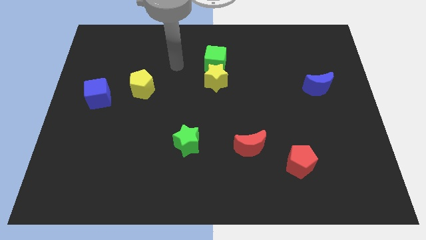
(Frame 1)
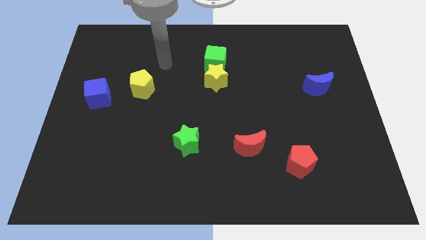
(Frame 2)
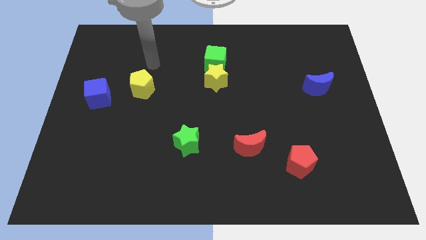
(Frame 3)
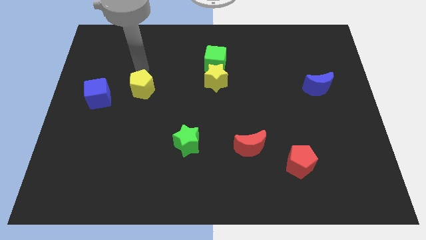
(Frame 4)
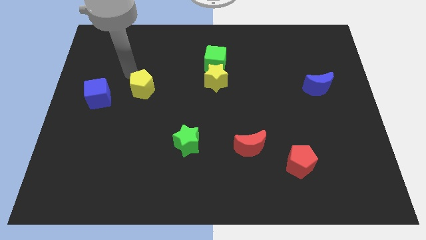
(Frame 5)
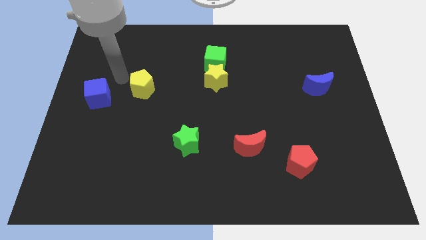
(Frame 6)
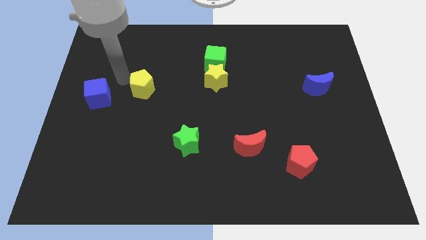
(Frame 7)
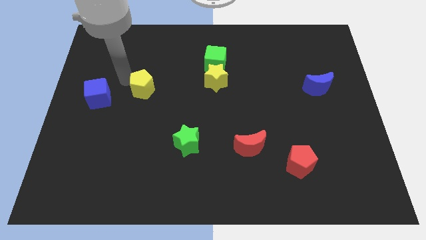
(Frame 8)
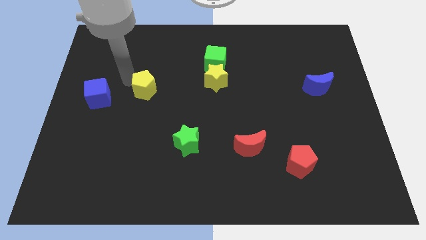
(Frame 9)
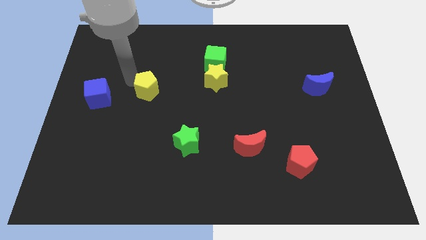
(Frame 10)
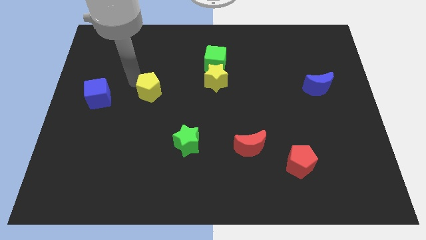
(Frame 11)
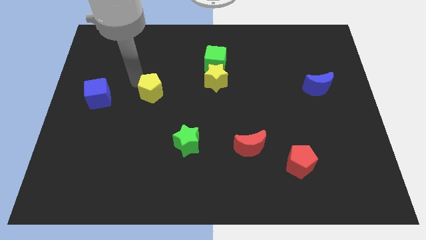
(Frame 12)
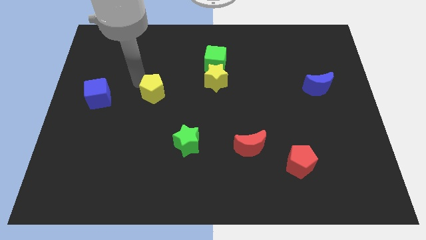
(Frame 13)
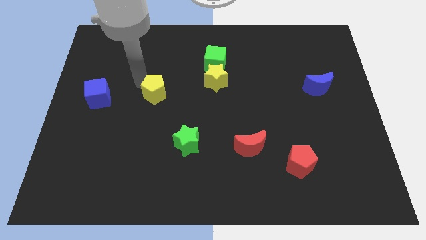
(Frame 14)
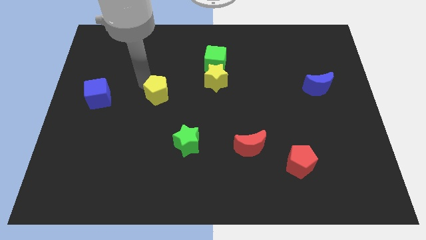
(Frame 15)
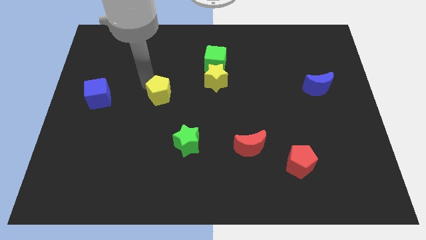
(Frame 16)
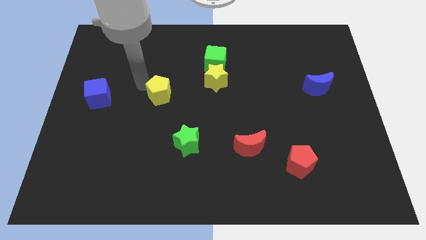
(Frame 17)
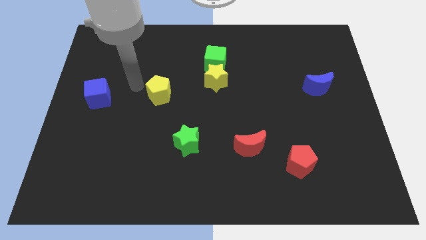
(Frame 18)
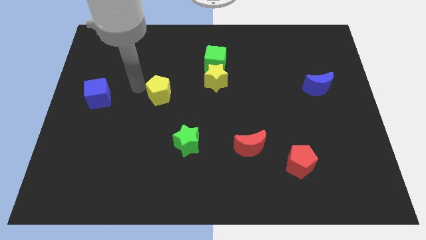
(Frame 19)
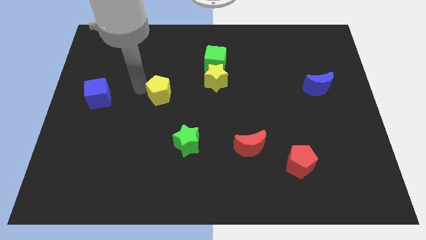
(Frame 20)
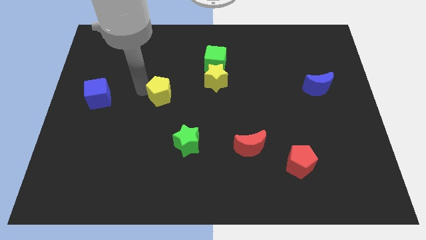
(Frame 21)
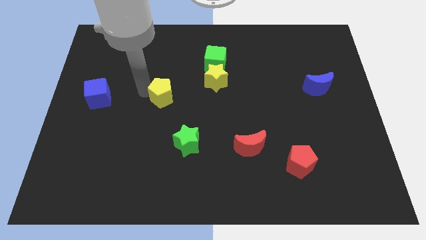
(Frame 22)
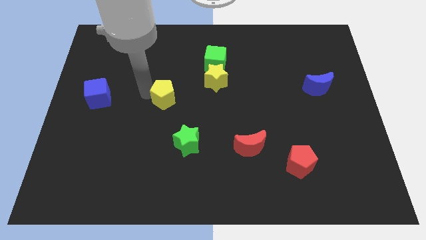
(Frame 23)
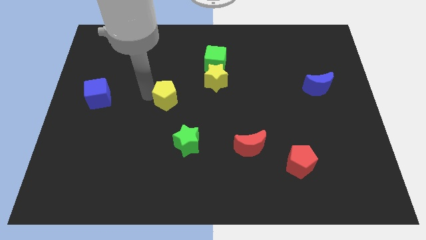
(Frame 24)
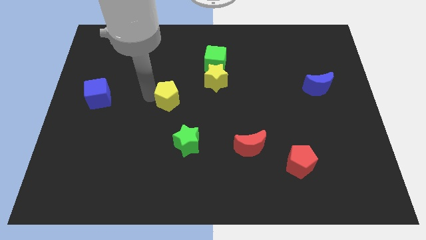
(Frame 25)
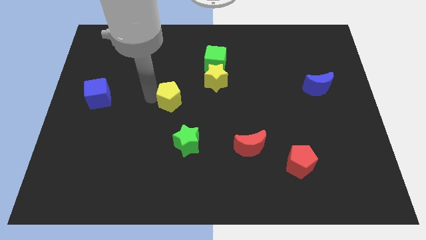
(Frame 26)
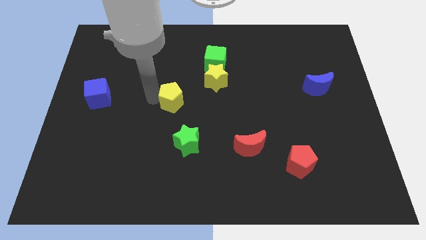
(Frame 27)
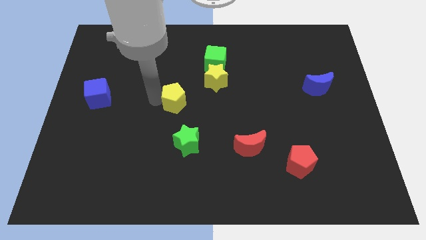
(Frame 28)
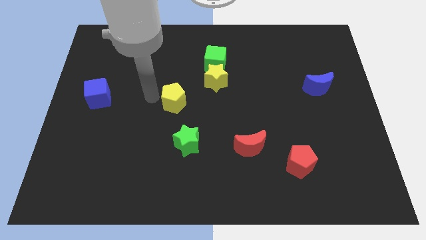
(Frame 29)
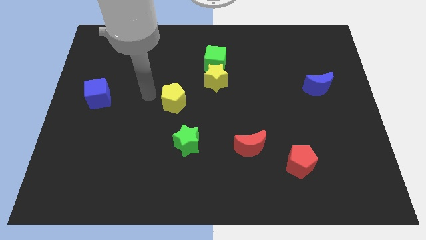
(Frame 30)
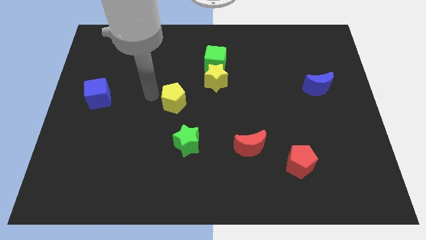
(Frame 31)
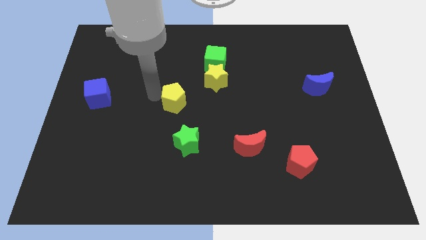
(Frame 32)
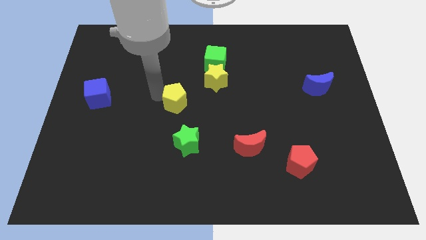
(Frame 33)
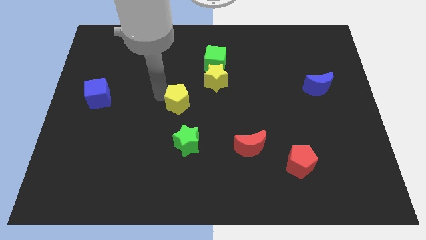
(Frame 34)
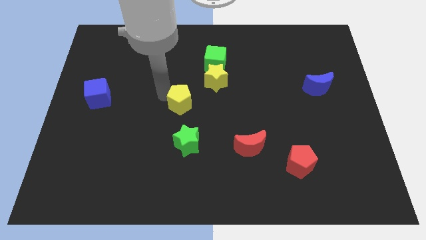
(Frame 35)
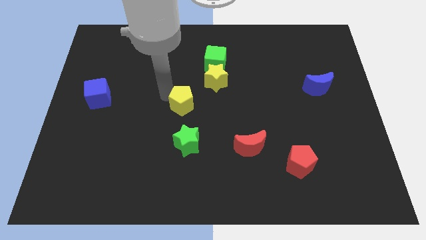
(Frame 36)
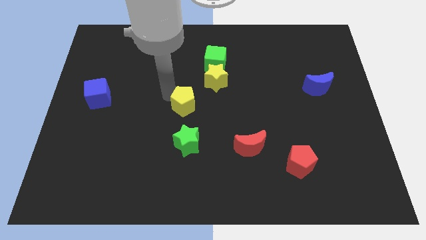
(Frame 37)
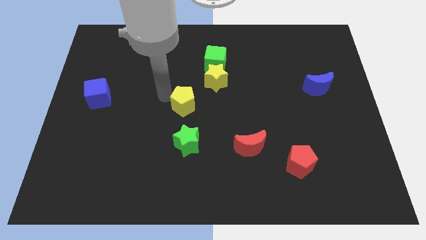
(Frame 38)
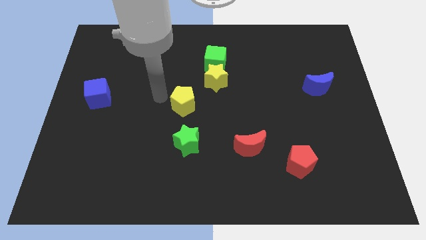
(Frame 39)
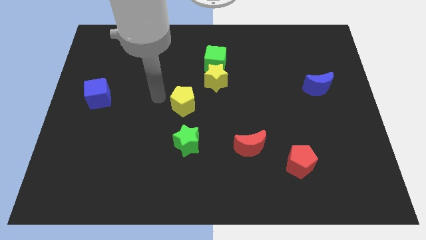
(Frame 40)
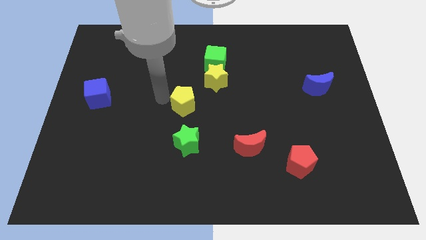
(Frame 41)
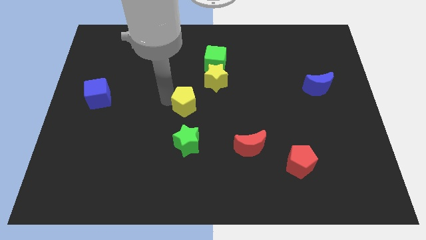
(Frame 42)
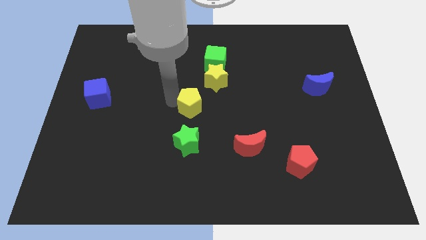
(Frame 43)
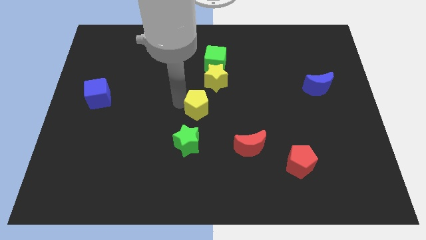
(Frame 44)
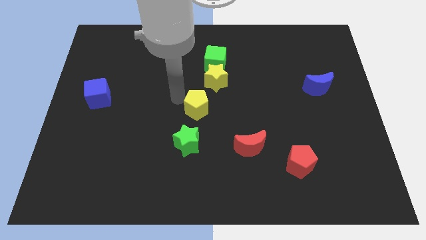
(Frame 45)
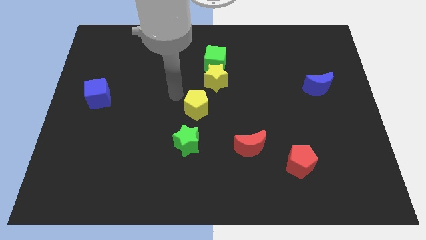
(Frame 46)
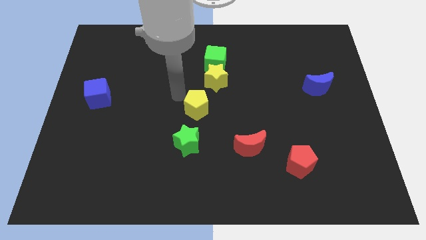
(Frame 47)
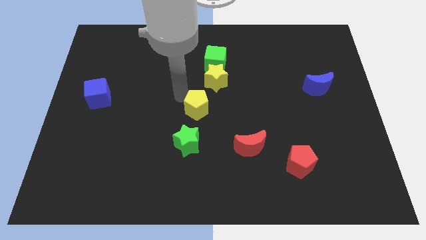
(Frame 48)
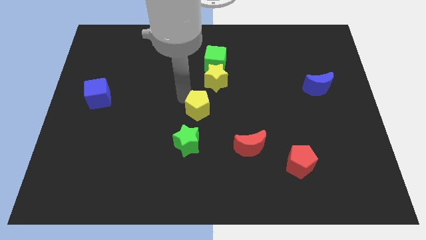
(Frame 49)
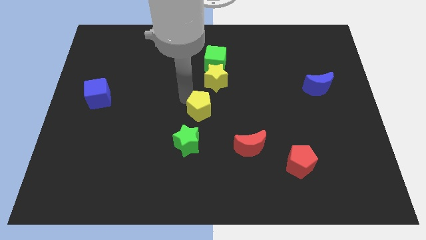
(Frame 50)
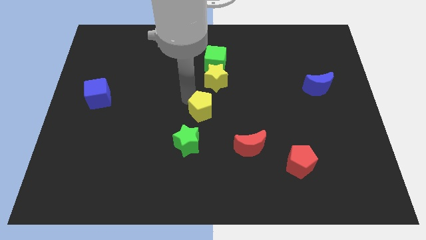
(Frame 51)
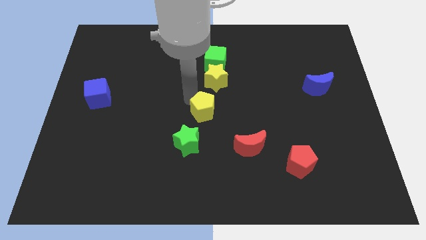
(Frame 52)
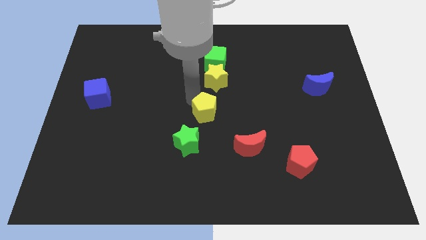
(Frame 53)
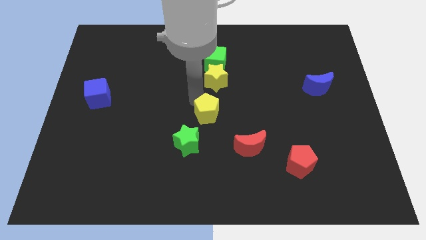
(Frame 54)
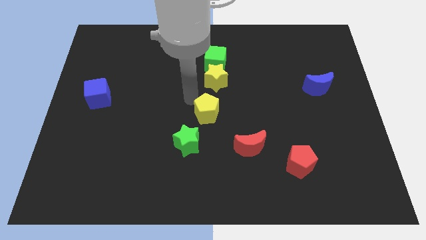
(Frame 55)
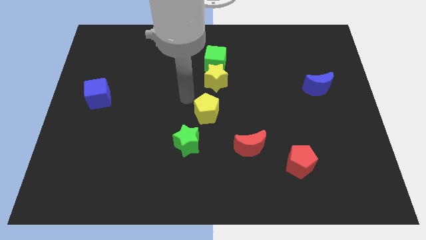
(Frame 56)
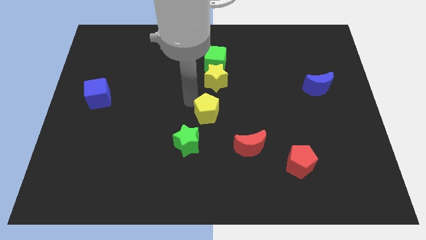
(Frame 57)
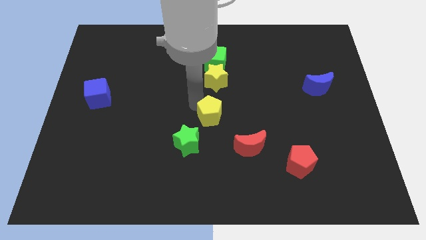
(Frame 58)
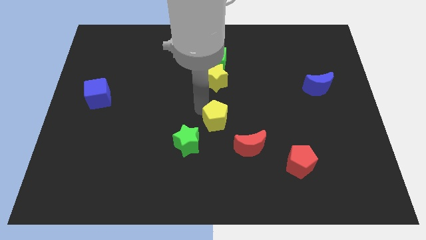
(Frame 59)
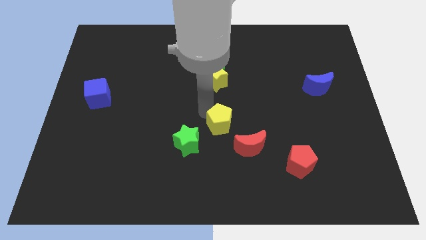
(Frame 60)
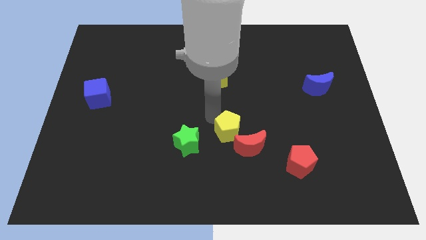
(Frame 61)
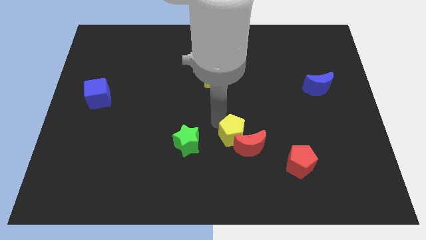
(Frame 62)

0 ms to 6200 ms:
put the yellow pentagon close to the red moon

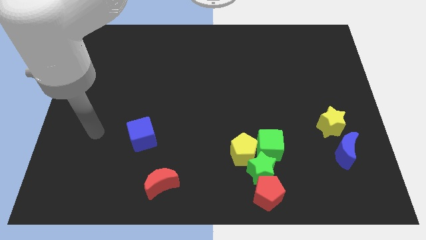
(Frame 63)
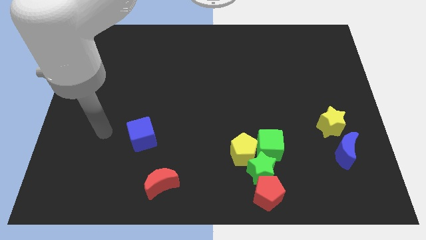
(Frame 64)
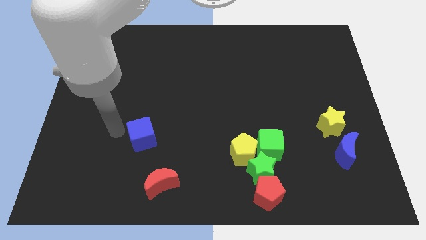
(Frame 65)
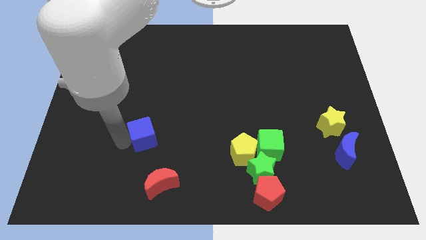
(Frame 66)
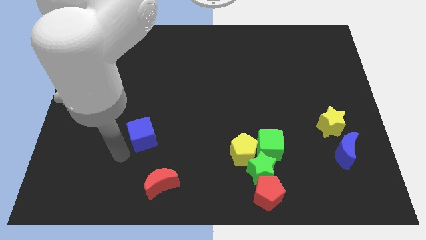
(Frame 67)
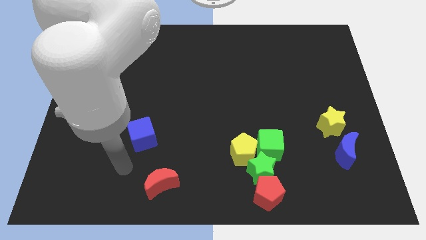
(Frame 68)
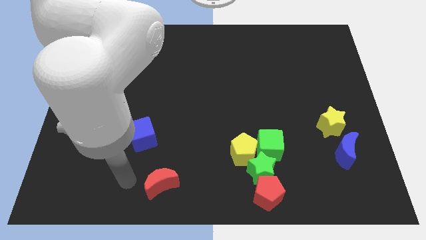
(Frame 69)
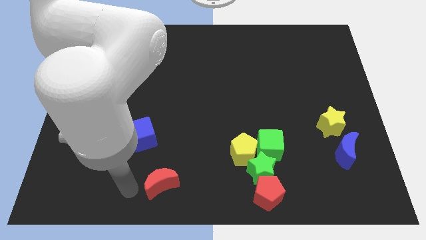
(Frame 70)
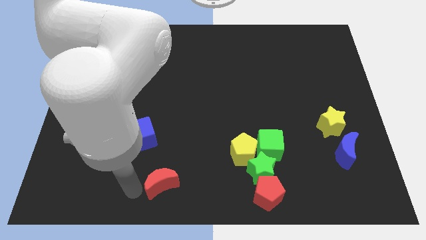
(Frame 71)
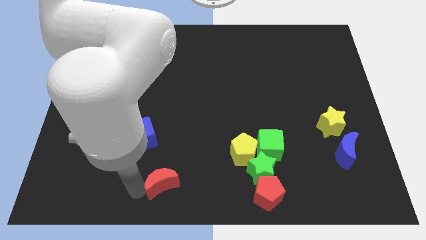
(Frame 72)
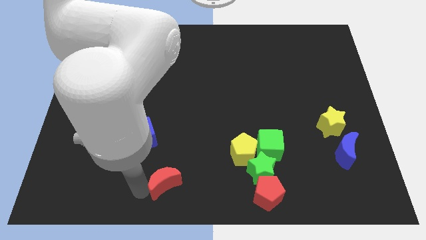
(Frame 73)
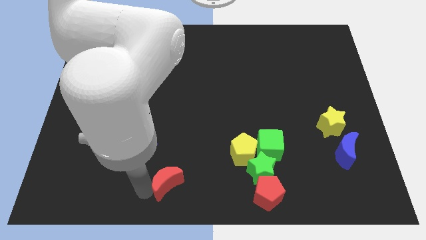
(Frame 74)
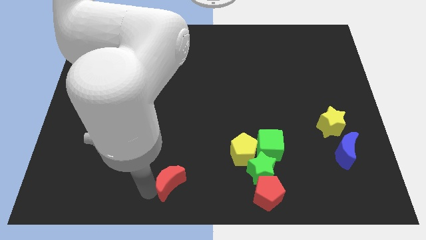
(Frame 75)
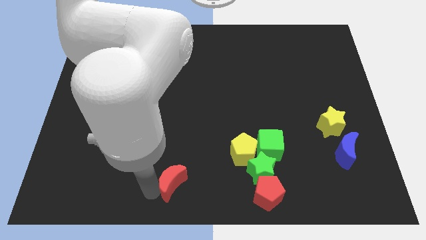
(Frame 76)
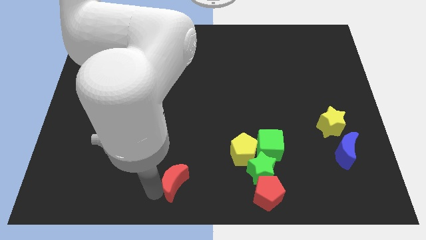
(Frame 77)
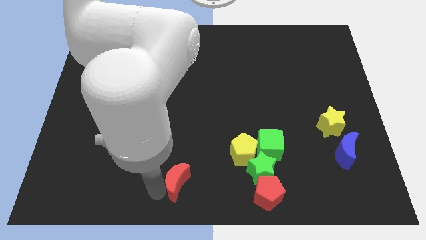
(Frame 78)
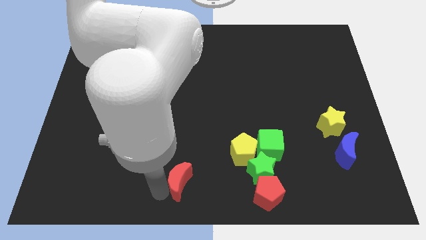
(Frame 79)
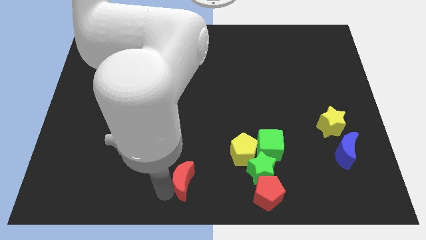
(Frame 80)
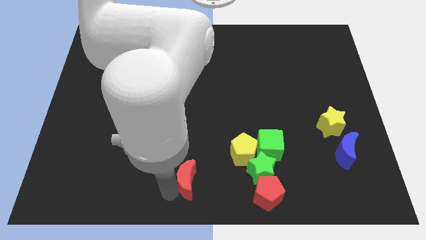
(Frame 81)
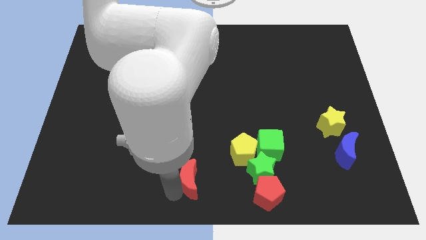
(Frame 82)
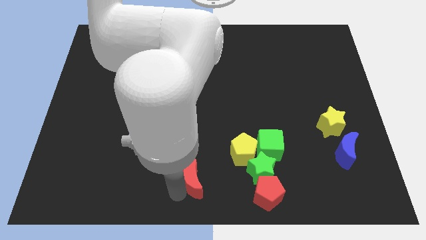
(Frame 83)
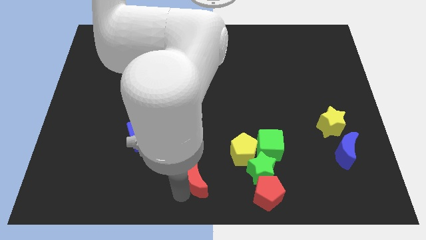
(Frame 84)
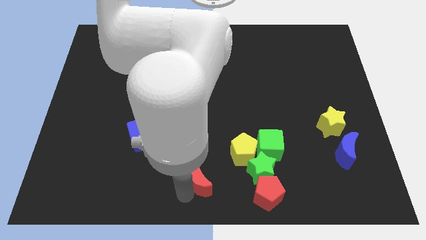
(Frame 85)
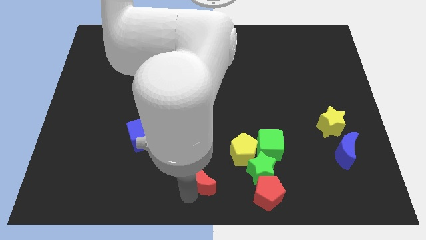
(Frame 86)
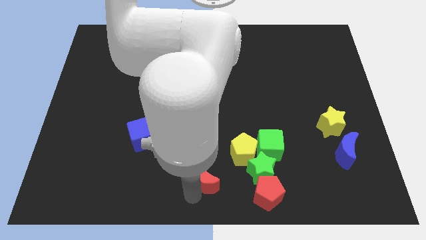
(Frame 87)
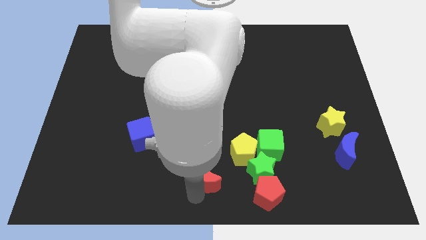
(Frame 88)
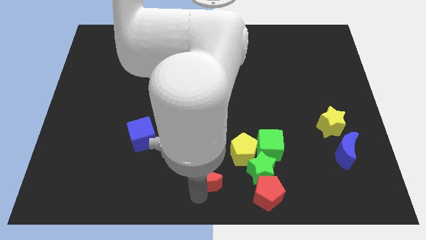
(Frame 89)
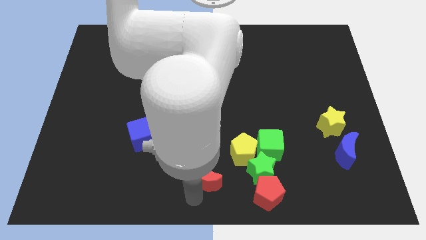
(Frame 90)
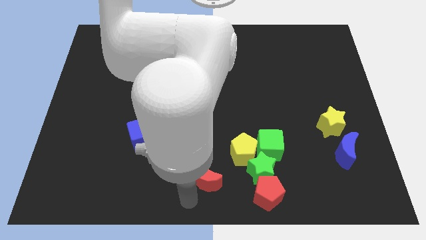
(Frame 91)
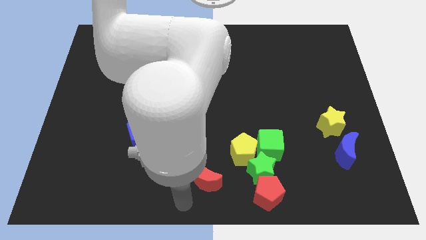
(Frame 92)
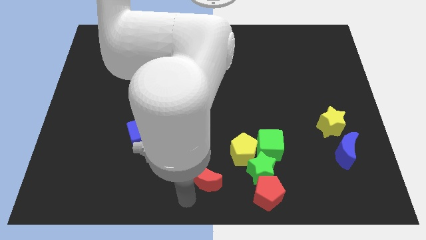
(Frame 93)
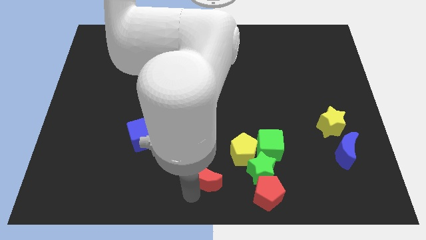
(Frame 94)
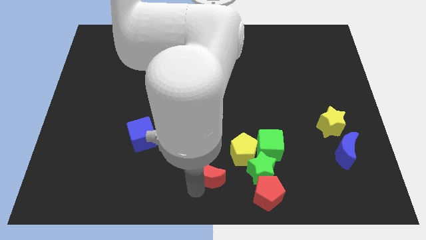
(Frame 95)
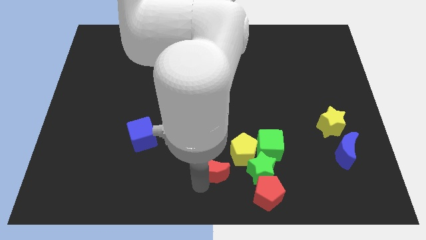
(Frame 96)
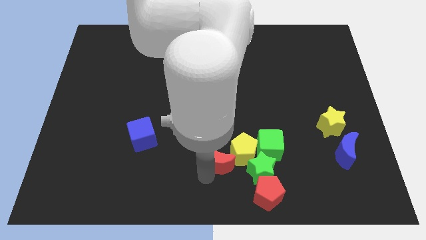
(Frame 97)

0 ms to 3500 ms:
slide the red moon next to the yellow pentagon
